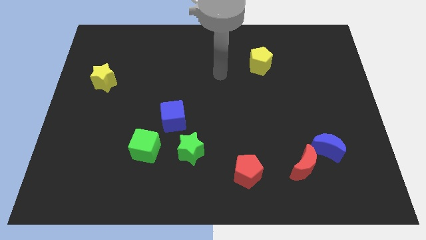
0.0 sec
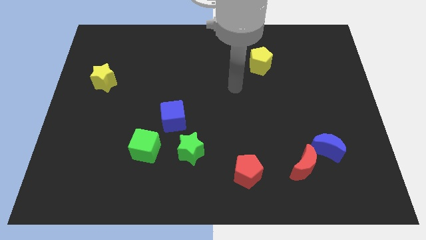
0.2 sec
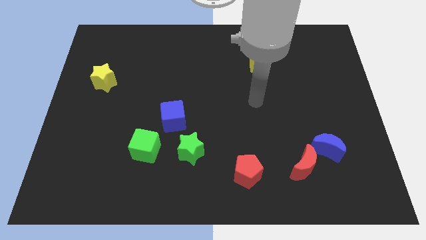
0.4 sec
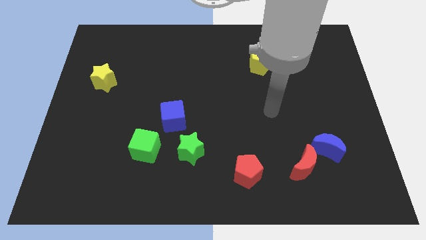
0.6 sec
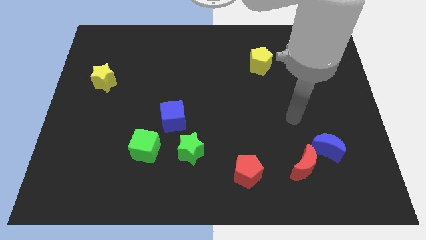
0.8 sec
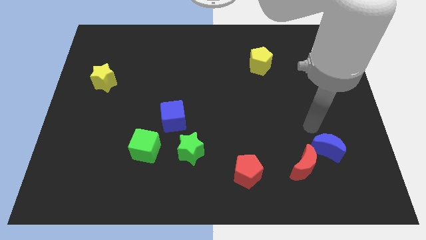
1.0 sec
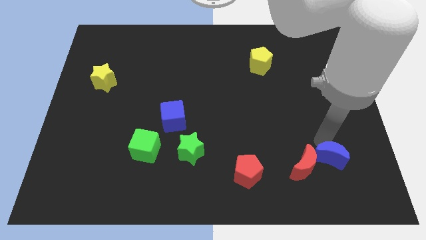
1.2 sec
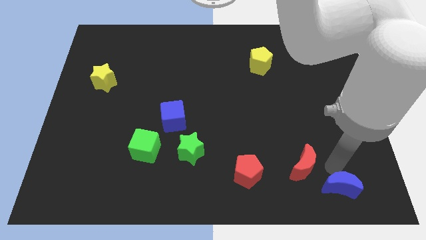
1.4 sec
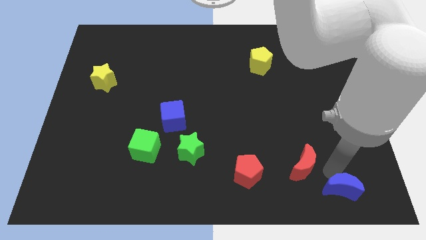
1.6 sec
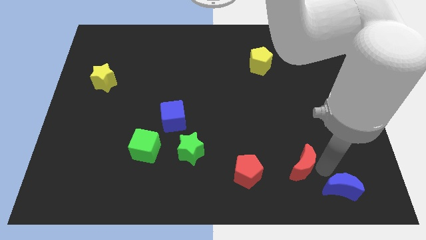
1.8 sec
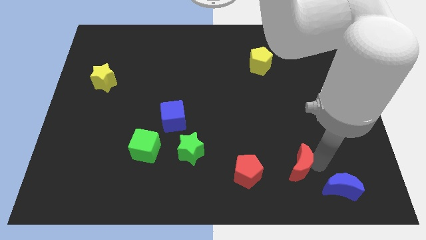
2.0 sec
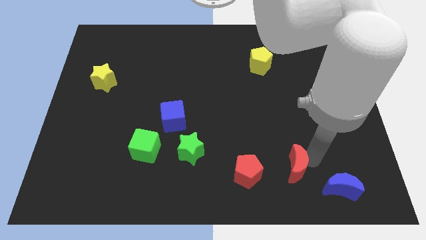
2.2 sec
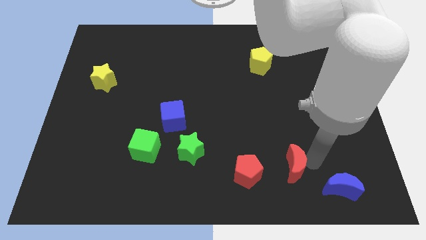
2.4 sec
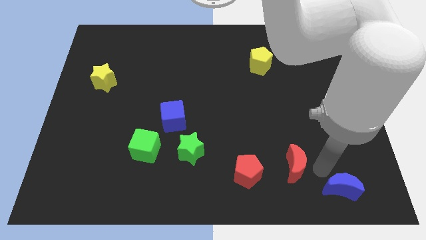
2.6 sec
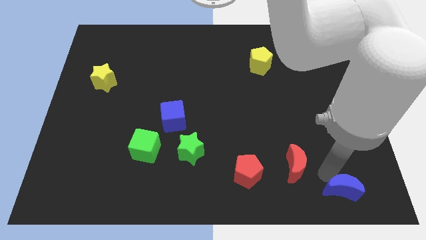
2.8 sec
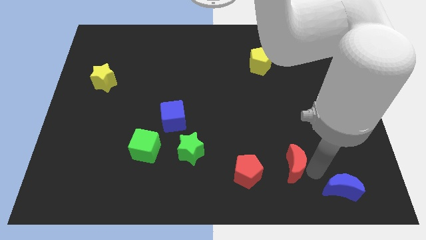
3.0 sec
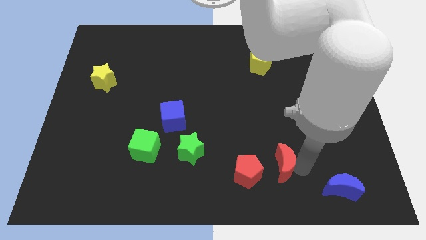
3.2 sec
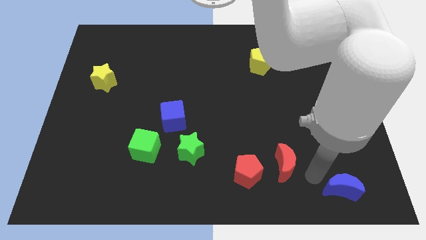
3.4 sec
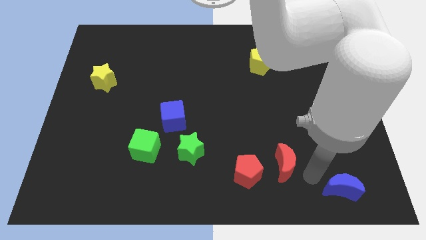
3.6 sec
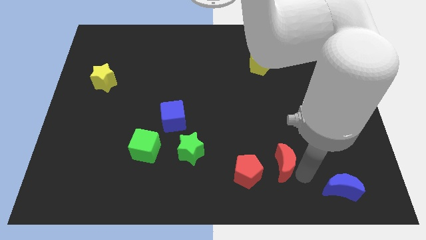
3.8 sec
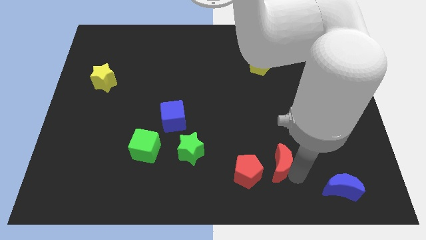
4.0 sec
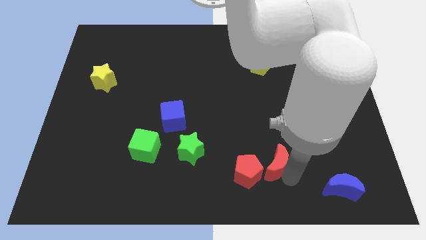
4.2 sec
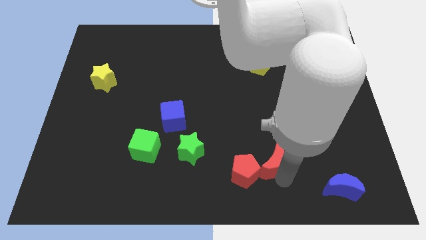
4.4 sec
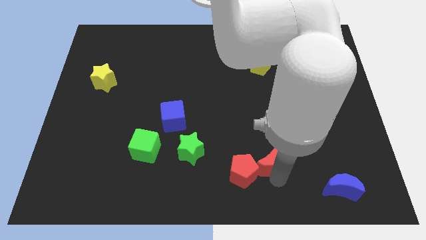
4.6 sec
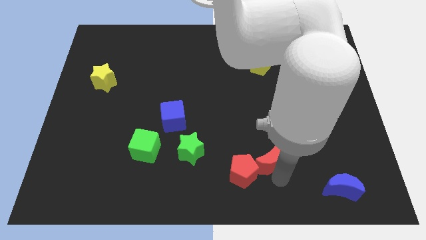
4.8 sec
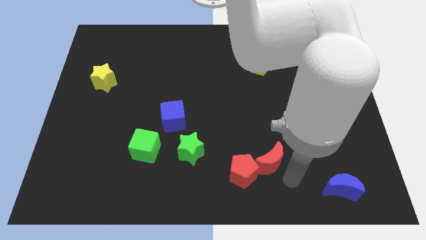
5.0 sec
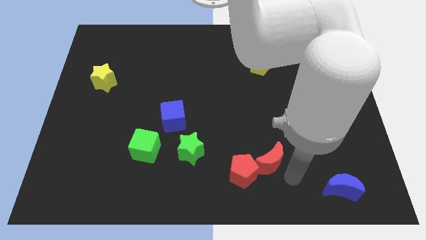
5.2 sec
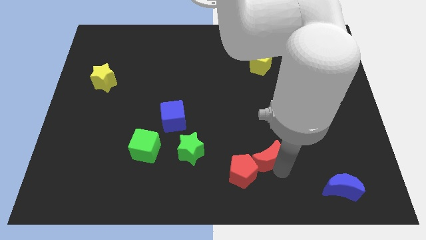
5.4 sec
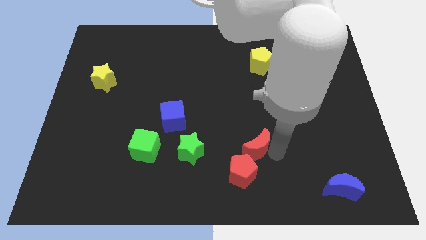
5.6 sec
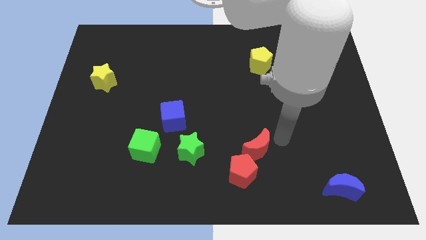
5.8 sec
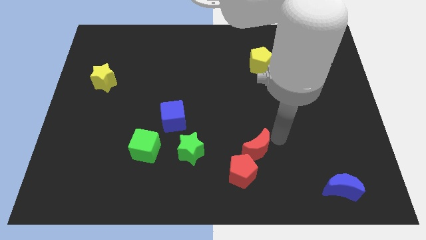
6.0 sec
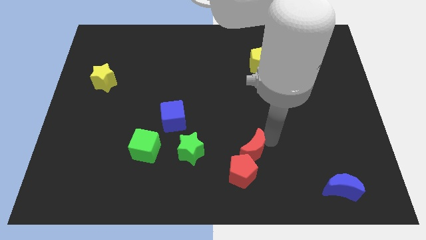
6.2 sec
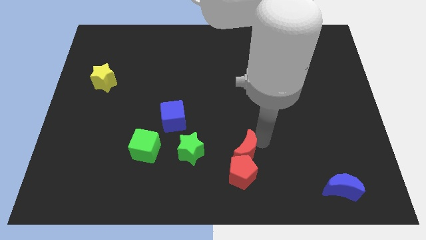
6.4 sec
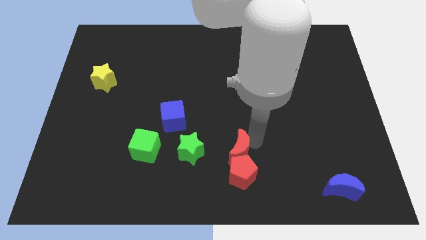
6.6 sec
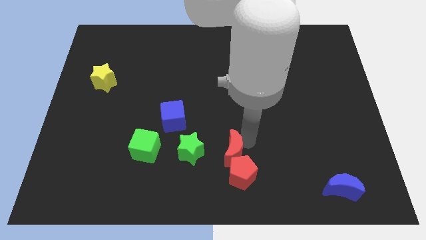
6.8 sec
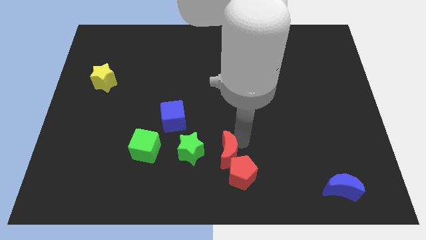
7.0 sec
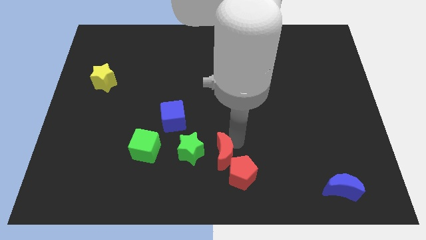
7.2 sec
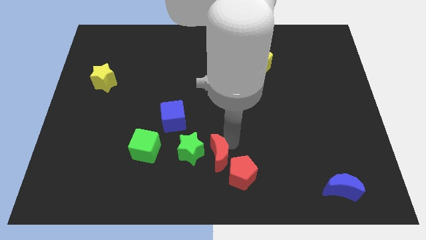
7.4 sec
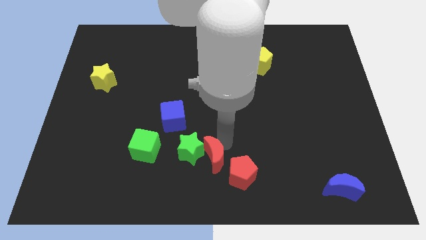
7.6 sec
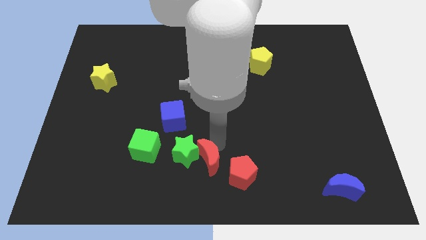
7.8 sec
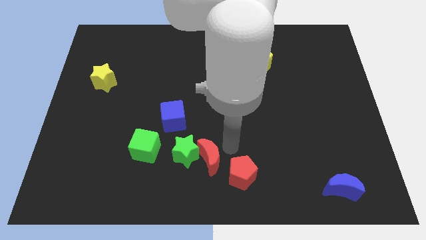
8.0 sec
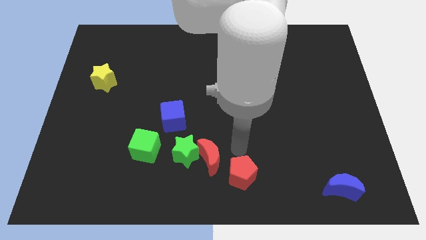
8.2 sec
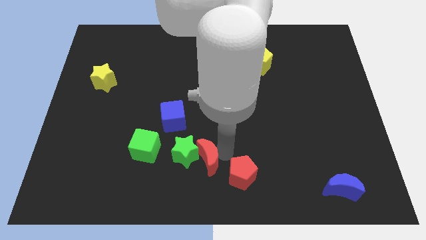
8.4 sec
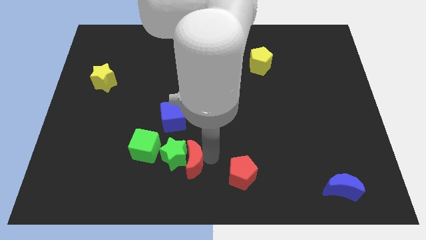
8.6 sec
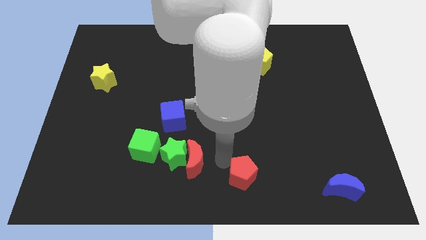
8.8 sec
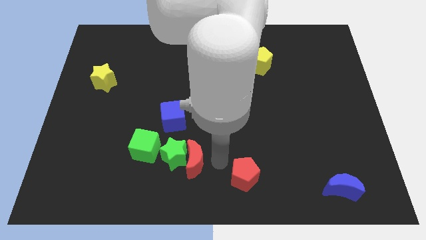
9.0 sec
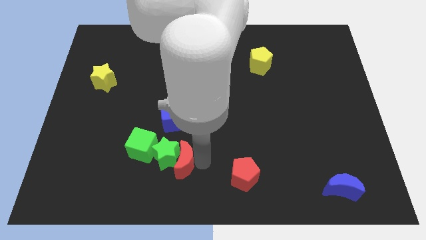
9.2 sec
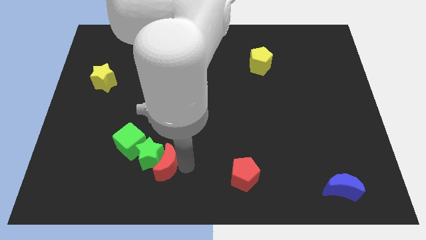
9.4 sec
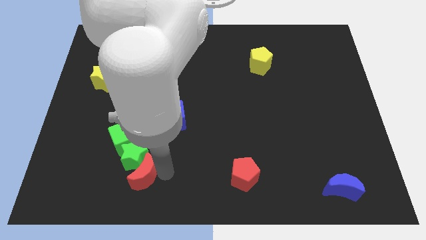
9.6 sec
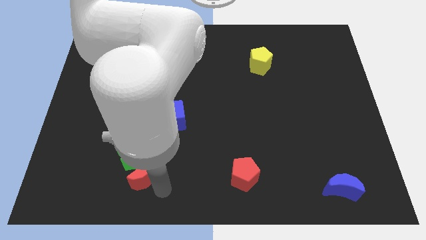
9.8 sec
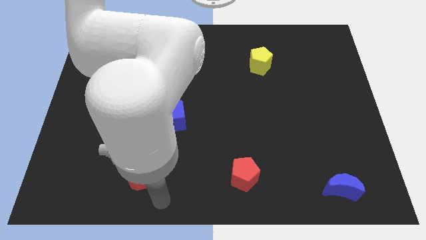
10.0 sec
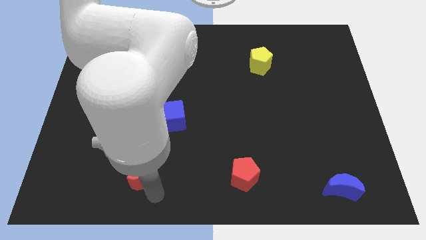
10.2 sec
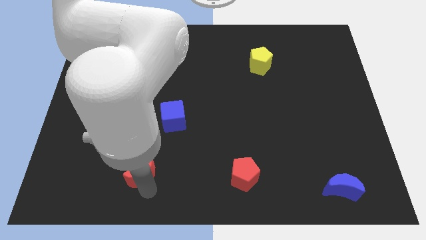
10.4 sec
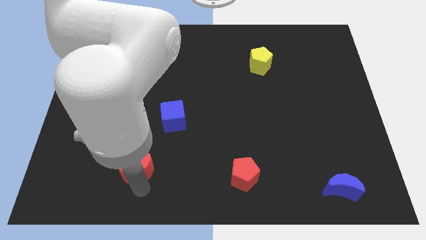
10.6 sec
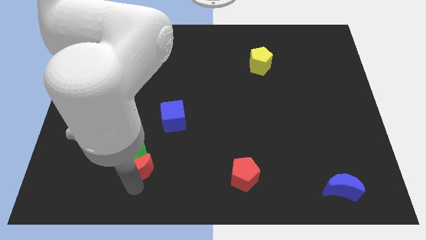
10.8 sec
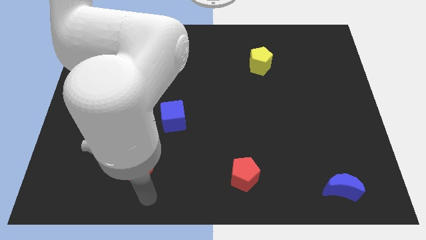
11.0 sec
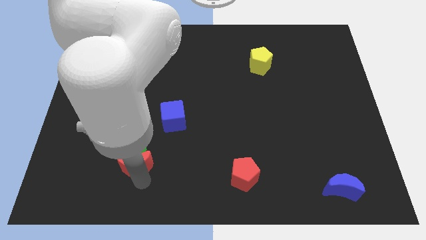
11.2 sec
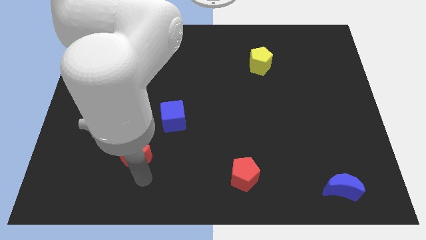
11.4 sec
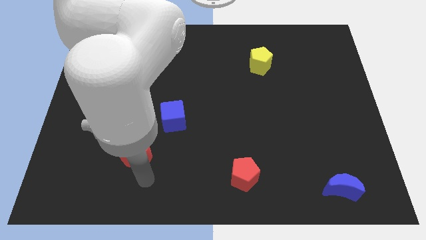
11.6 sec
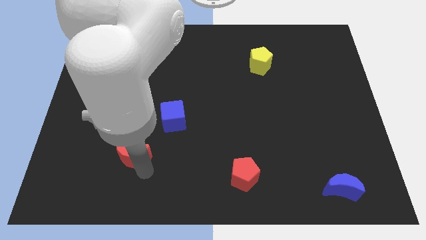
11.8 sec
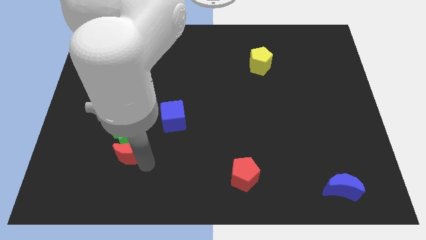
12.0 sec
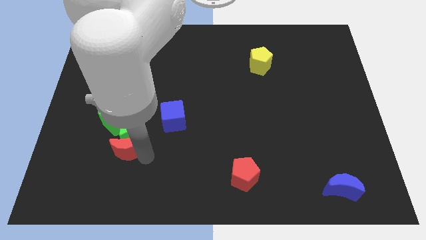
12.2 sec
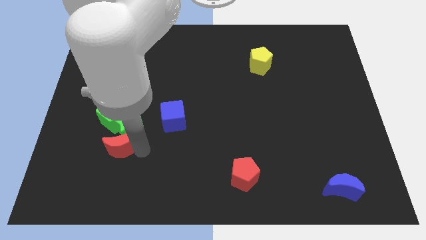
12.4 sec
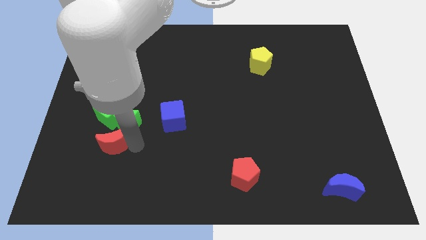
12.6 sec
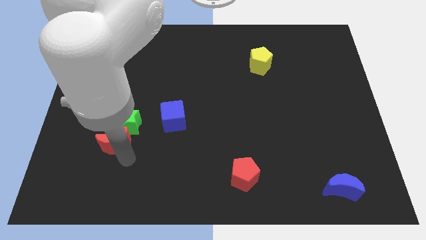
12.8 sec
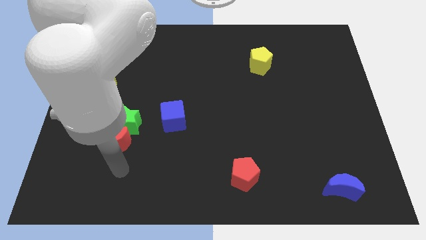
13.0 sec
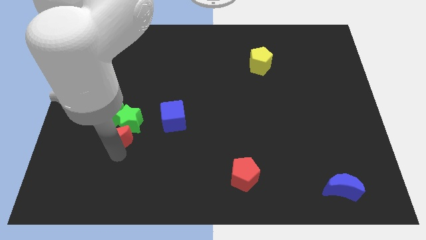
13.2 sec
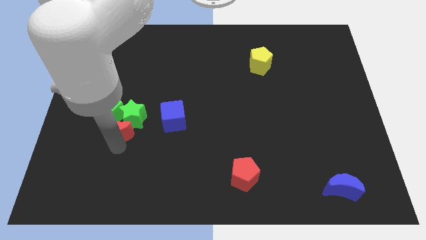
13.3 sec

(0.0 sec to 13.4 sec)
move the red moon next to the green cube
